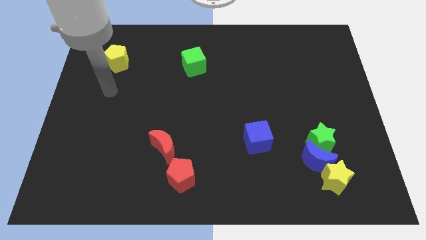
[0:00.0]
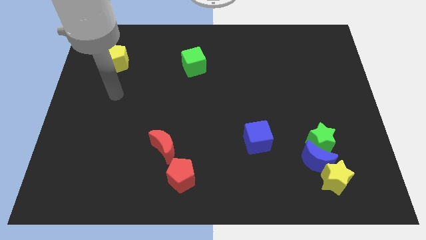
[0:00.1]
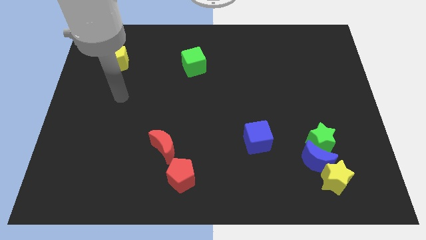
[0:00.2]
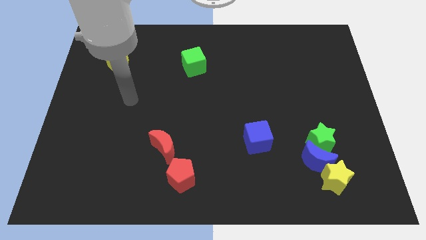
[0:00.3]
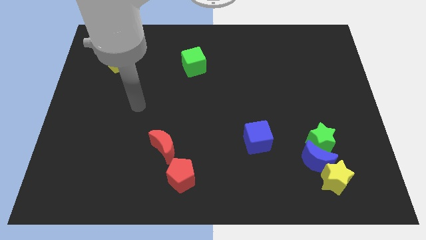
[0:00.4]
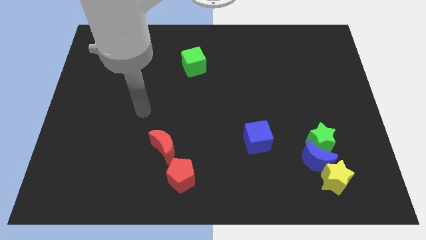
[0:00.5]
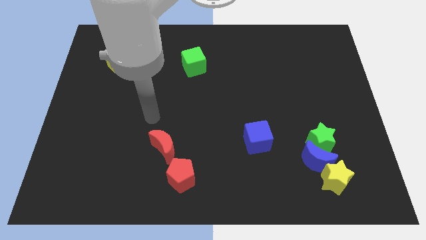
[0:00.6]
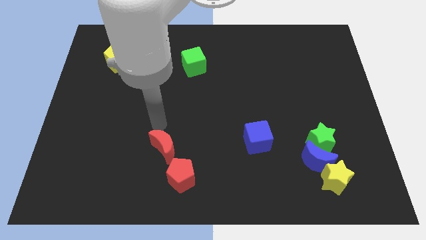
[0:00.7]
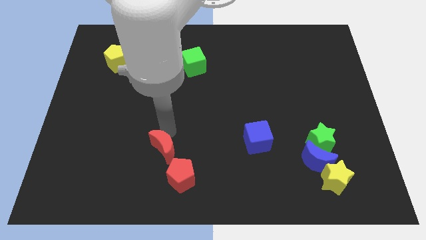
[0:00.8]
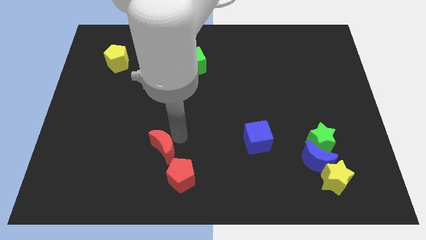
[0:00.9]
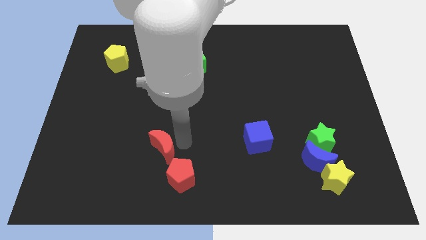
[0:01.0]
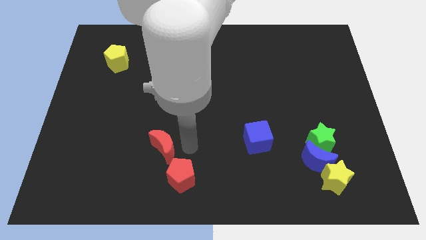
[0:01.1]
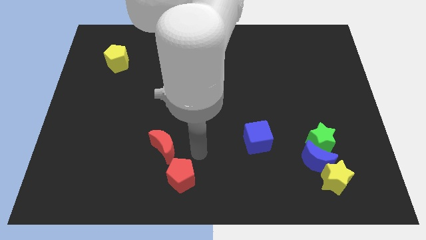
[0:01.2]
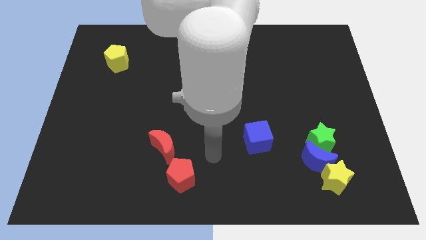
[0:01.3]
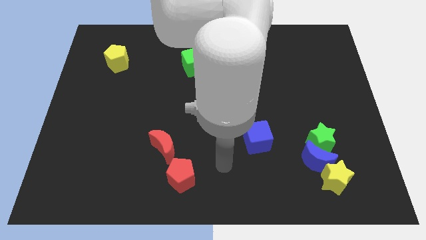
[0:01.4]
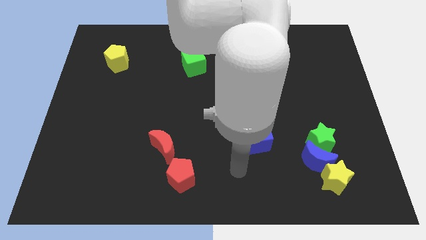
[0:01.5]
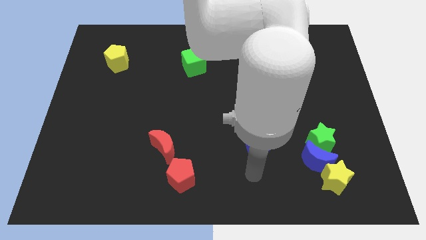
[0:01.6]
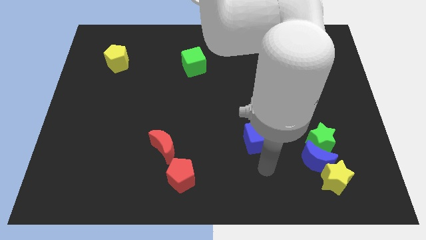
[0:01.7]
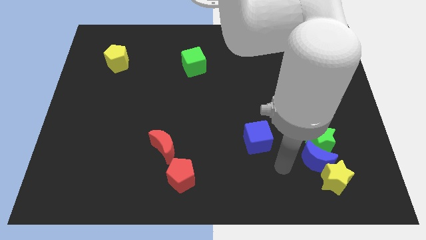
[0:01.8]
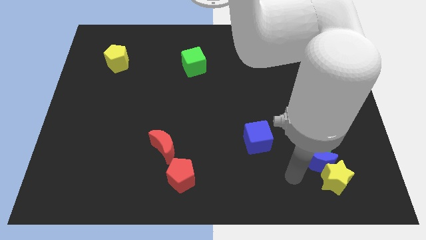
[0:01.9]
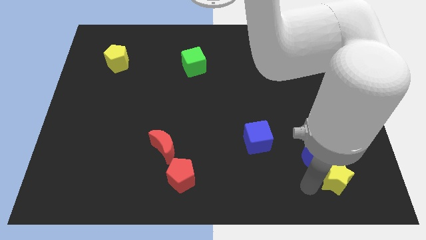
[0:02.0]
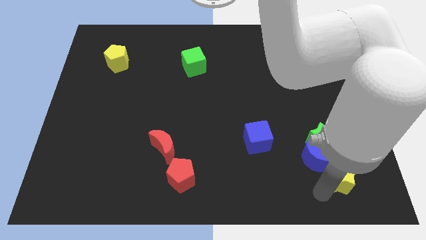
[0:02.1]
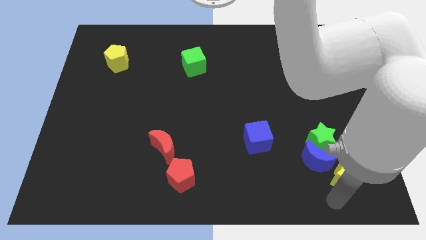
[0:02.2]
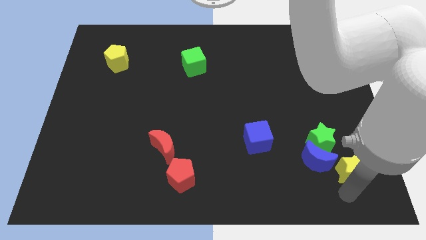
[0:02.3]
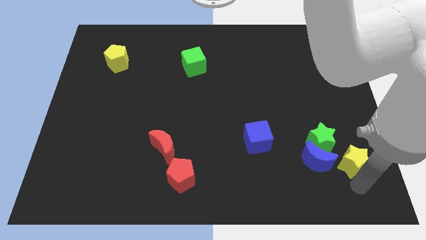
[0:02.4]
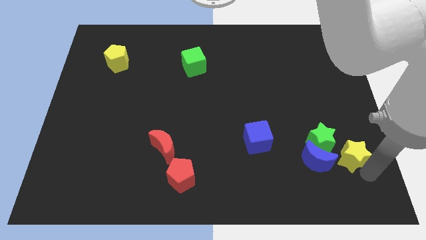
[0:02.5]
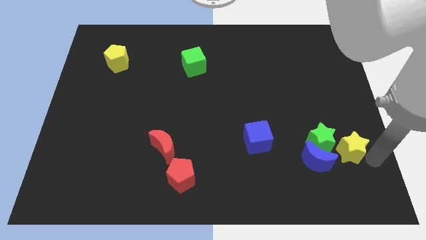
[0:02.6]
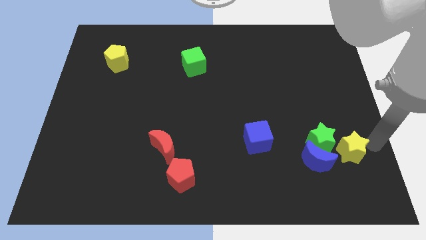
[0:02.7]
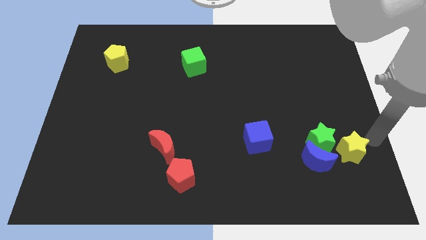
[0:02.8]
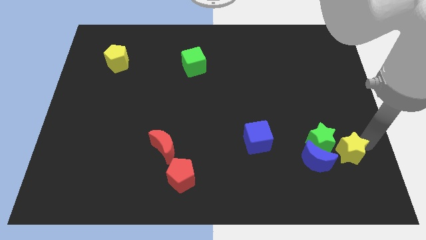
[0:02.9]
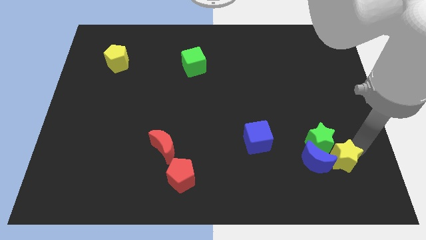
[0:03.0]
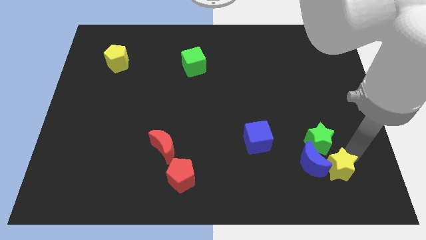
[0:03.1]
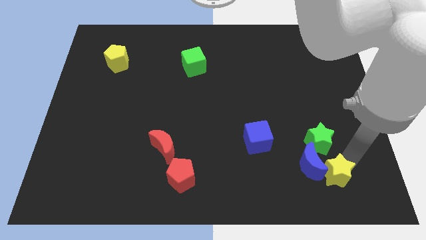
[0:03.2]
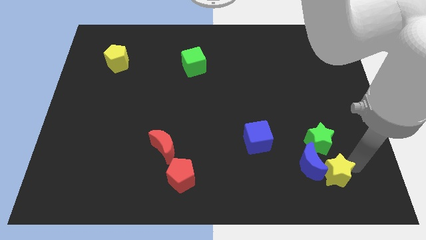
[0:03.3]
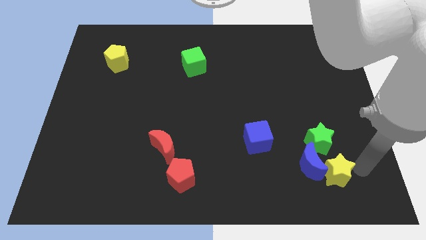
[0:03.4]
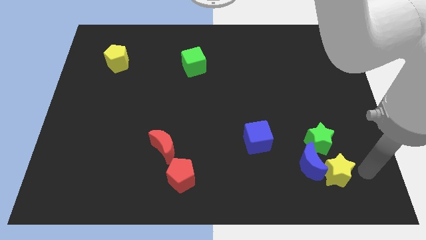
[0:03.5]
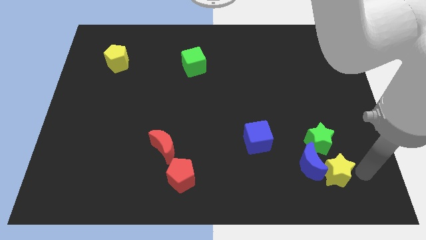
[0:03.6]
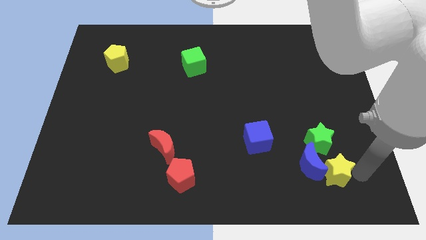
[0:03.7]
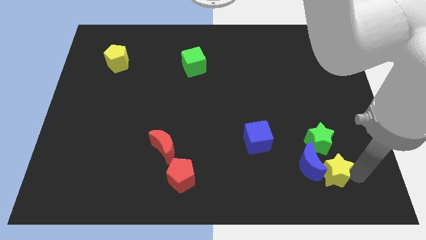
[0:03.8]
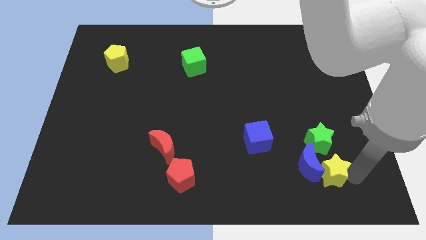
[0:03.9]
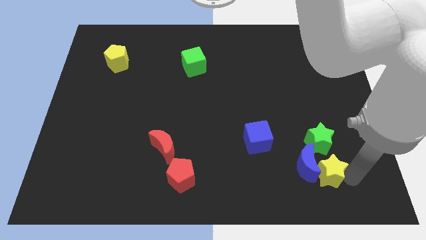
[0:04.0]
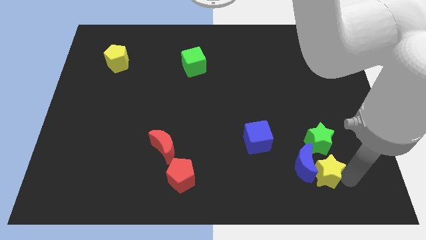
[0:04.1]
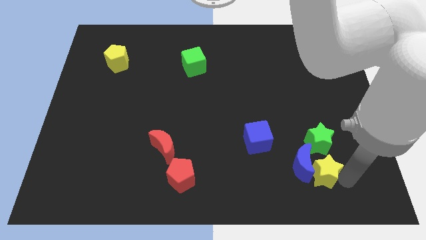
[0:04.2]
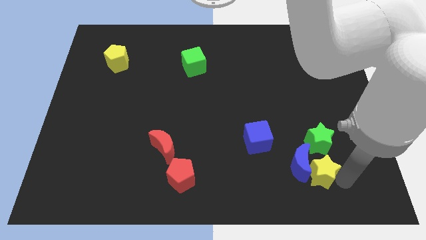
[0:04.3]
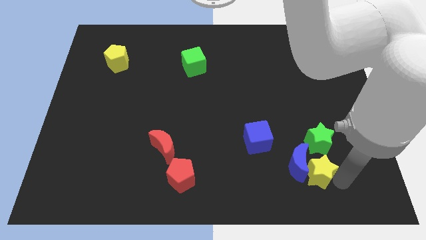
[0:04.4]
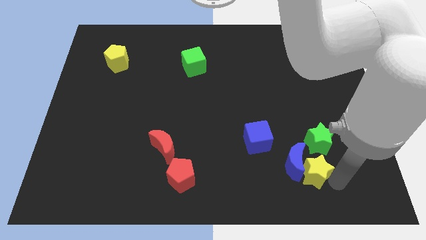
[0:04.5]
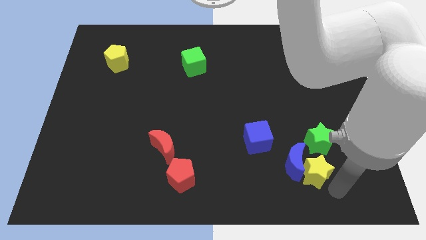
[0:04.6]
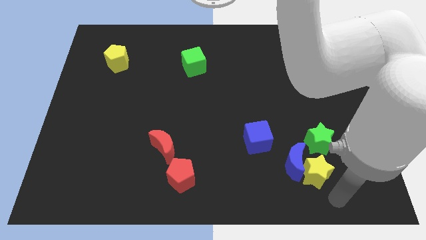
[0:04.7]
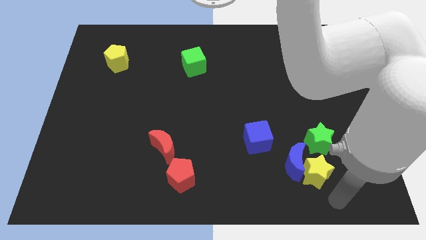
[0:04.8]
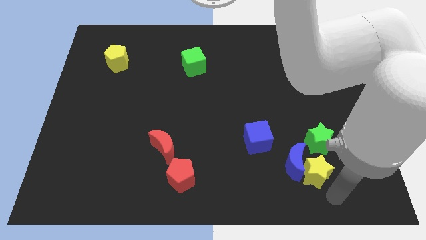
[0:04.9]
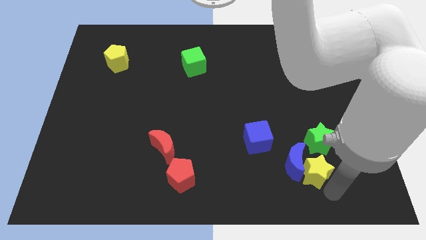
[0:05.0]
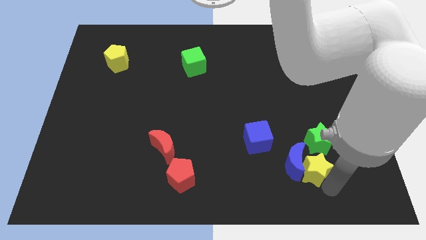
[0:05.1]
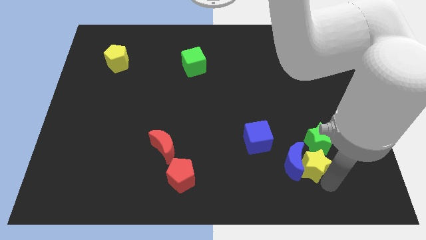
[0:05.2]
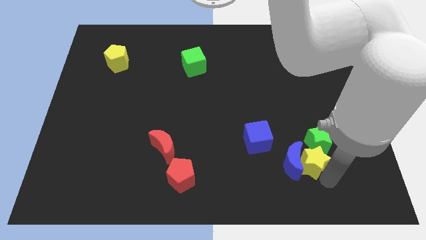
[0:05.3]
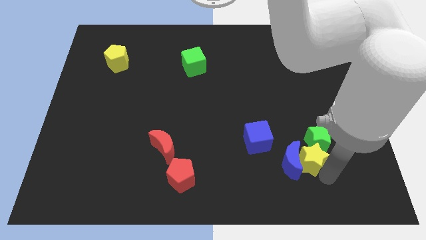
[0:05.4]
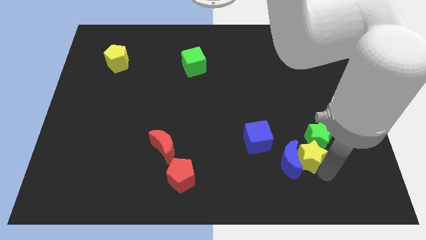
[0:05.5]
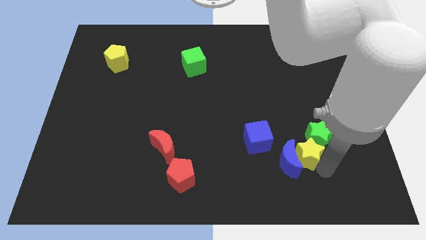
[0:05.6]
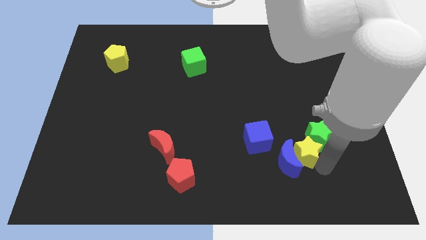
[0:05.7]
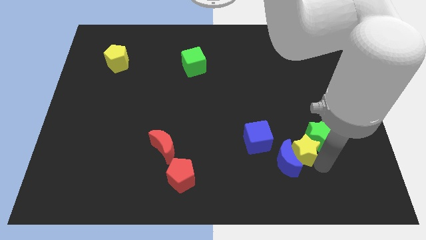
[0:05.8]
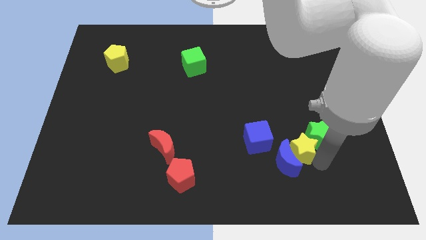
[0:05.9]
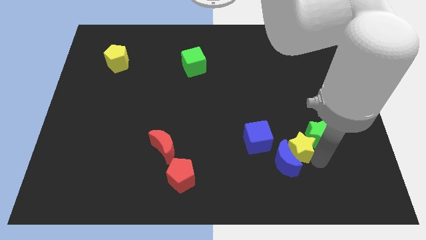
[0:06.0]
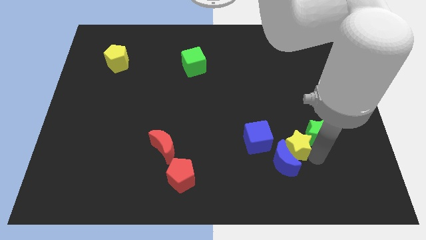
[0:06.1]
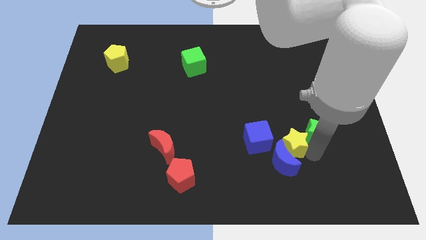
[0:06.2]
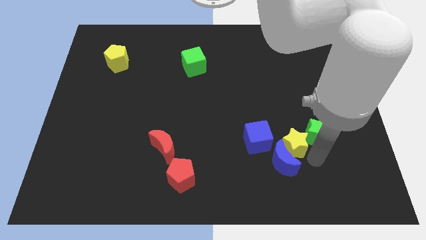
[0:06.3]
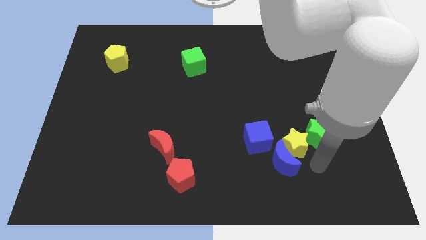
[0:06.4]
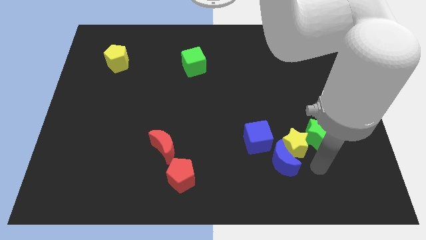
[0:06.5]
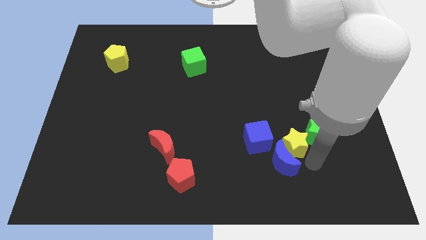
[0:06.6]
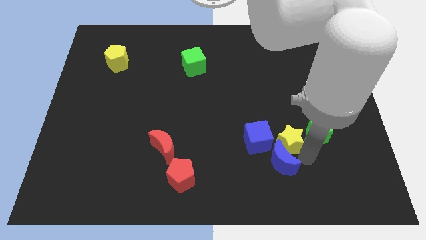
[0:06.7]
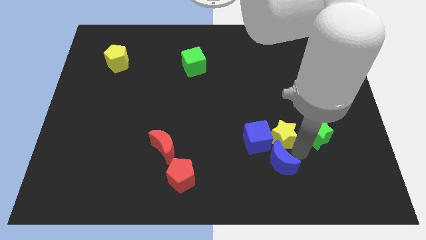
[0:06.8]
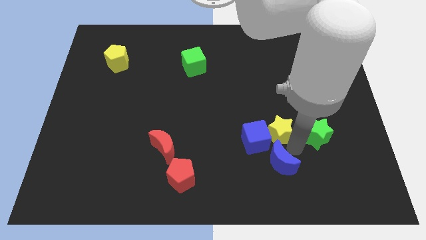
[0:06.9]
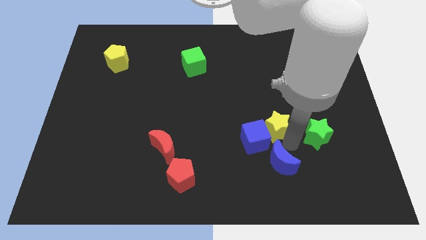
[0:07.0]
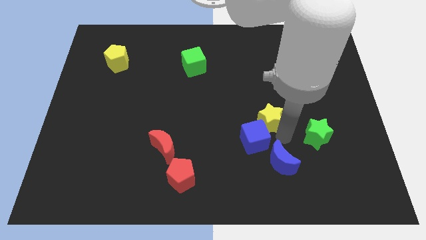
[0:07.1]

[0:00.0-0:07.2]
push the yellow star to the top side of the blue cube

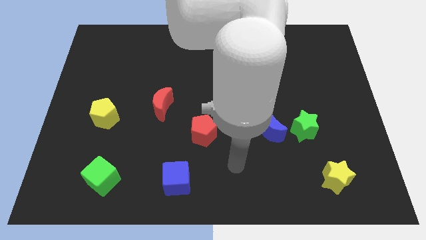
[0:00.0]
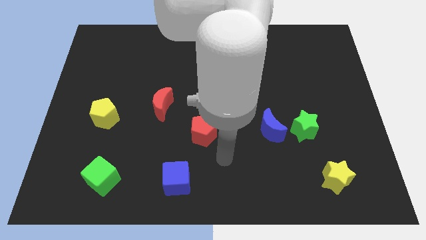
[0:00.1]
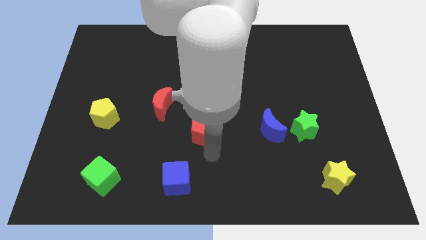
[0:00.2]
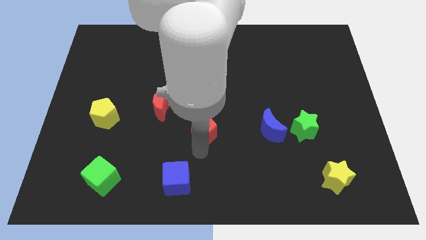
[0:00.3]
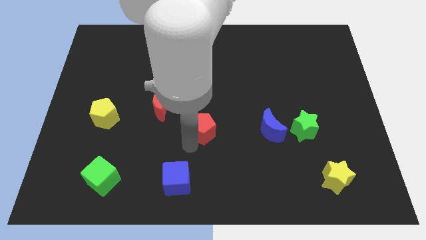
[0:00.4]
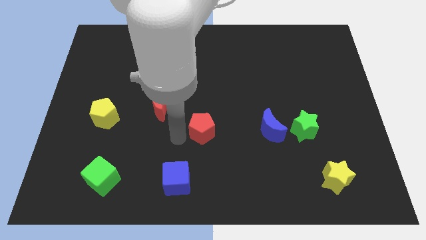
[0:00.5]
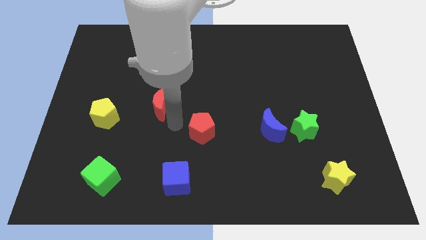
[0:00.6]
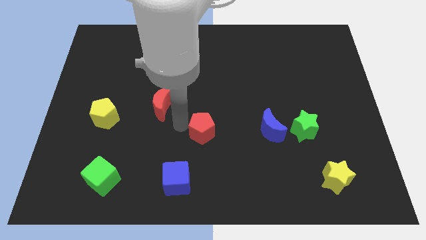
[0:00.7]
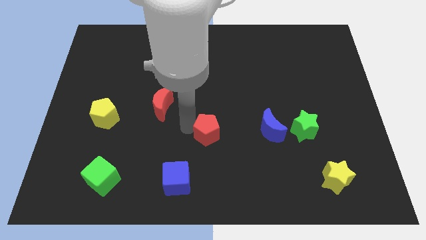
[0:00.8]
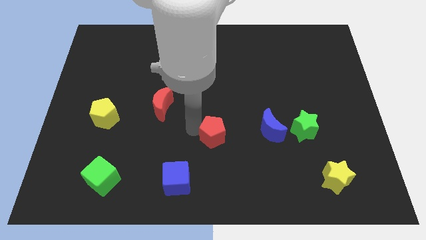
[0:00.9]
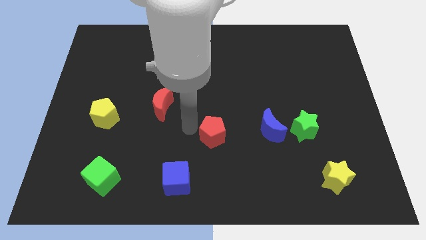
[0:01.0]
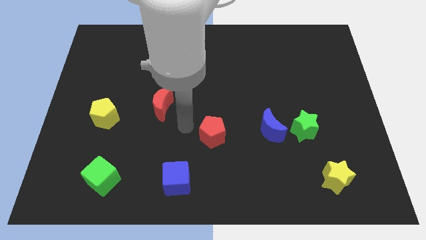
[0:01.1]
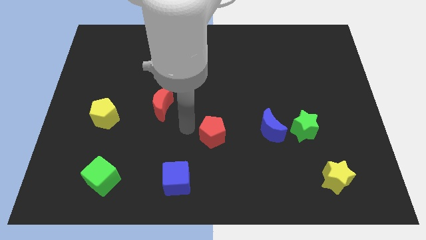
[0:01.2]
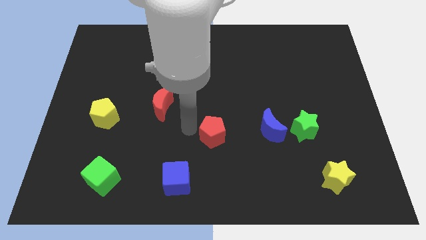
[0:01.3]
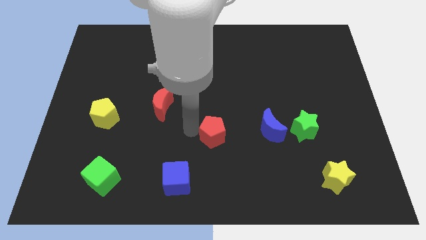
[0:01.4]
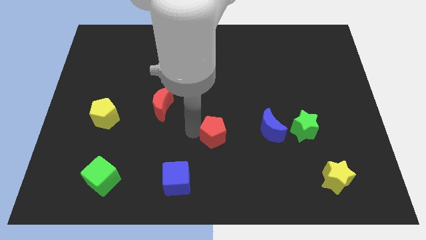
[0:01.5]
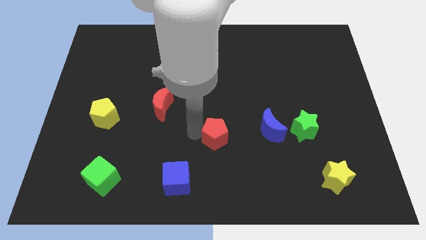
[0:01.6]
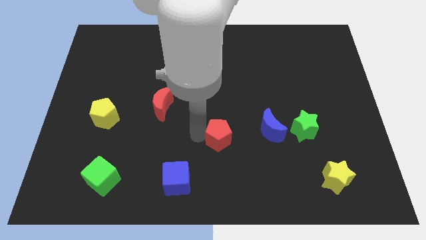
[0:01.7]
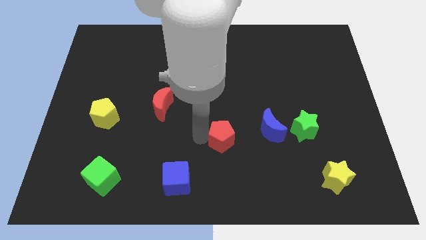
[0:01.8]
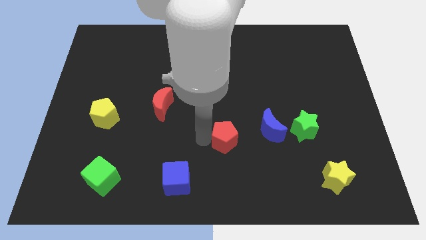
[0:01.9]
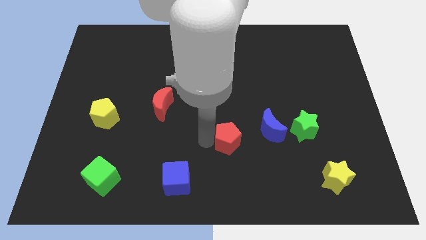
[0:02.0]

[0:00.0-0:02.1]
slide the red pentagon diagonally down and to the left of the blue moon
